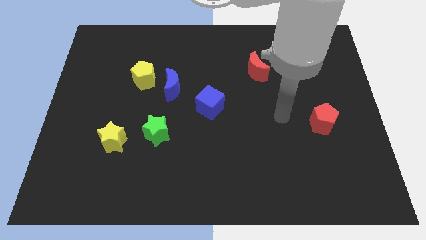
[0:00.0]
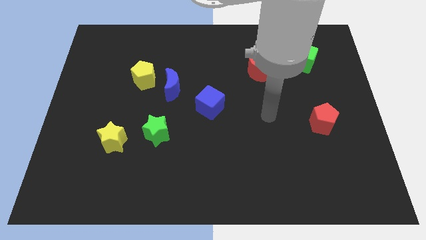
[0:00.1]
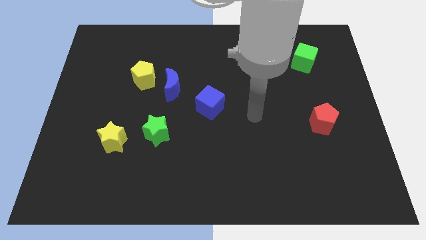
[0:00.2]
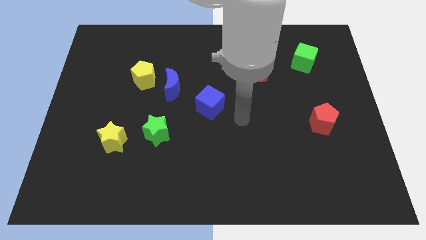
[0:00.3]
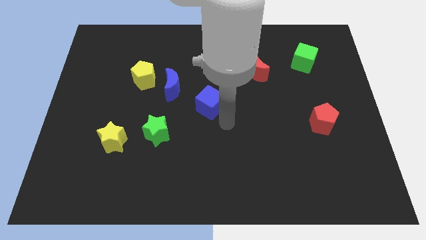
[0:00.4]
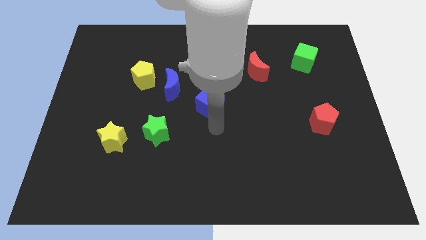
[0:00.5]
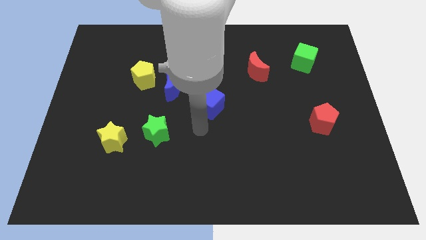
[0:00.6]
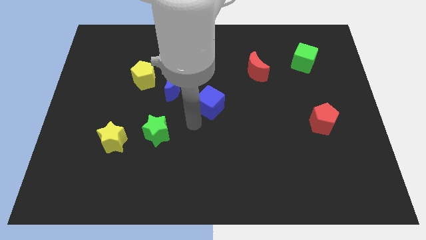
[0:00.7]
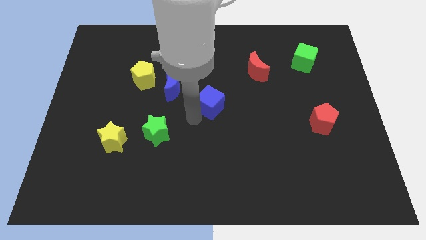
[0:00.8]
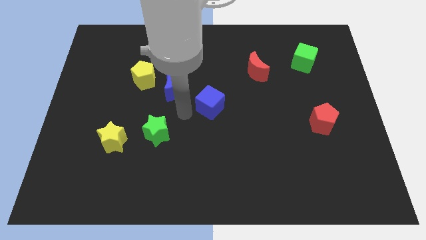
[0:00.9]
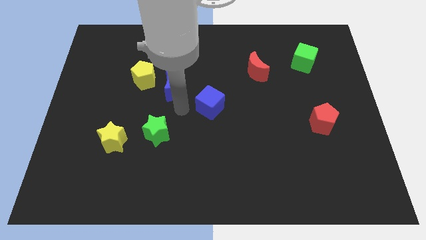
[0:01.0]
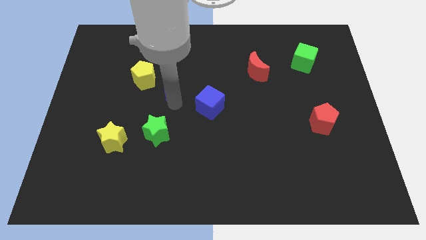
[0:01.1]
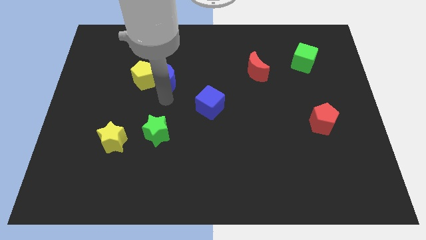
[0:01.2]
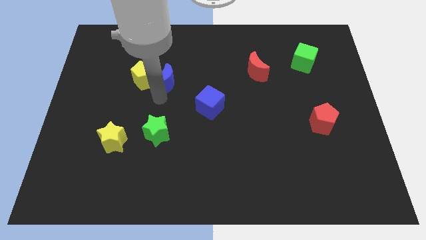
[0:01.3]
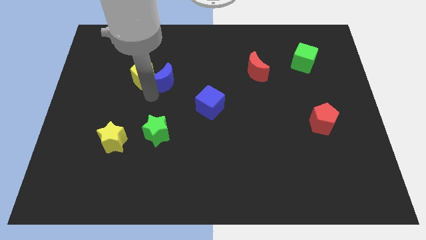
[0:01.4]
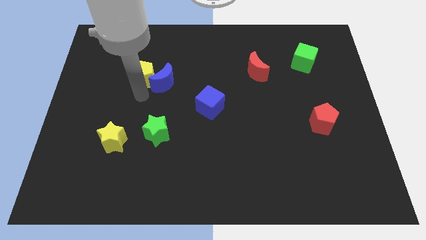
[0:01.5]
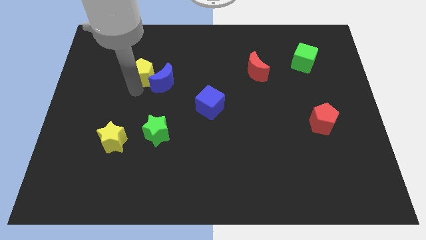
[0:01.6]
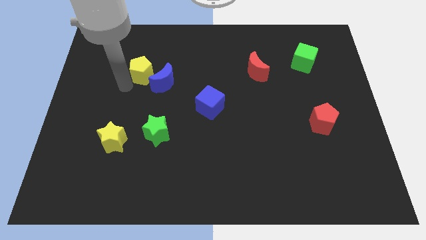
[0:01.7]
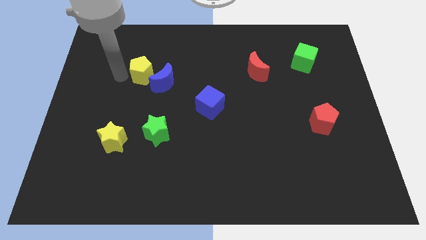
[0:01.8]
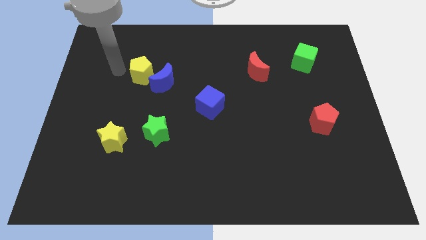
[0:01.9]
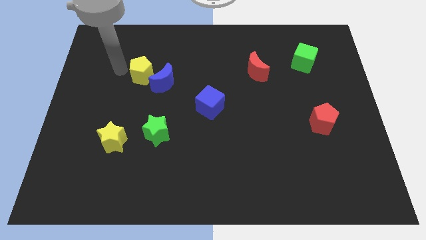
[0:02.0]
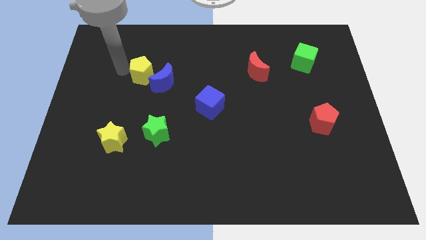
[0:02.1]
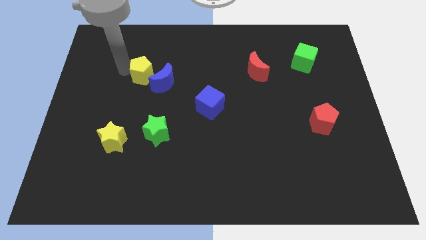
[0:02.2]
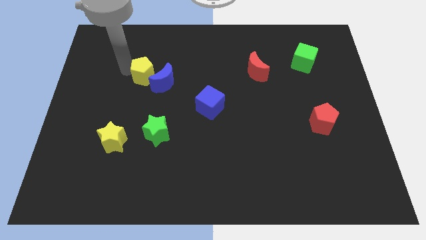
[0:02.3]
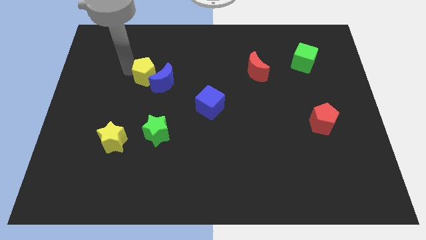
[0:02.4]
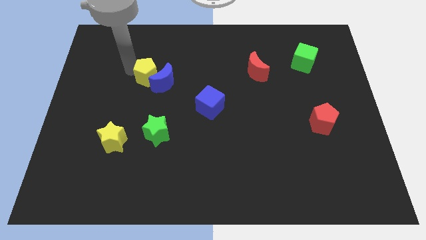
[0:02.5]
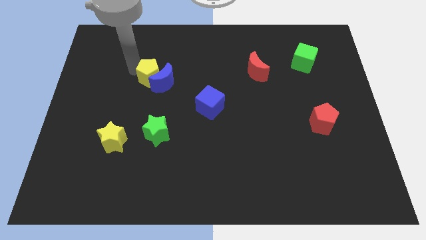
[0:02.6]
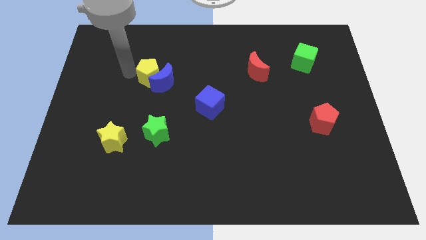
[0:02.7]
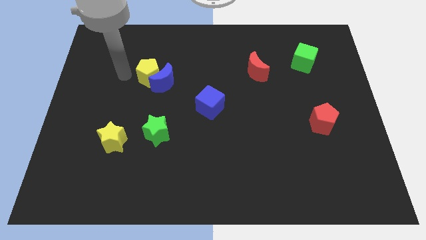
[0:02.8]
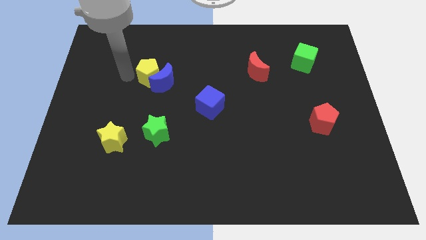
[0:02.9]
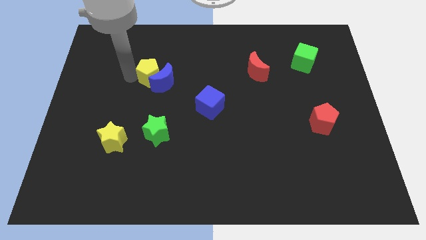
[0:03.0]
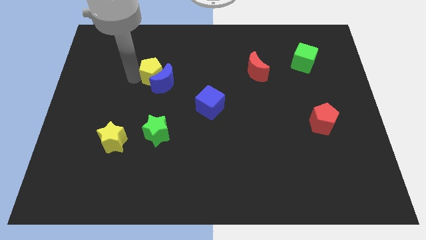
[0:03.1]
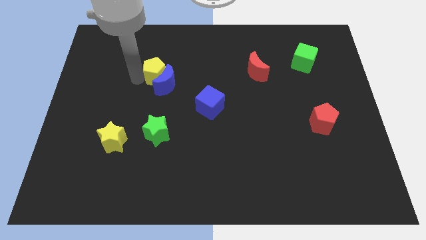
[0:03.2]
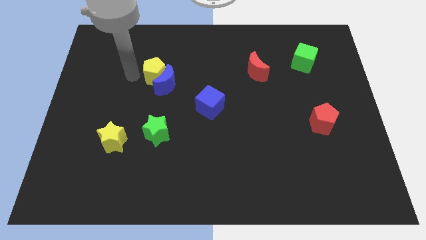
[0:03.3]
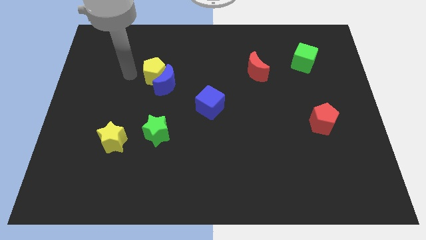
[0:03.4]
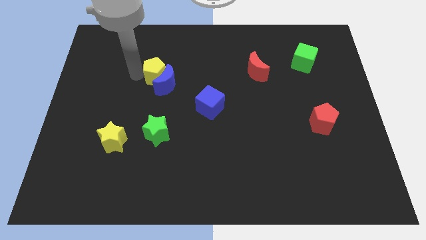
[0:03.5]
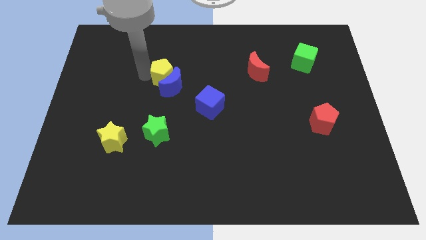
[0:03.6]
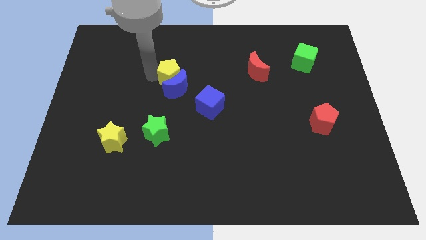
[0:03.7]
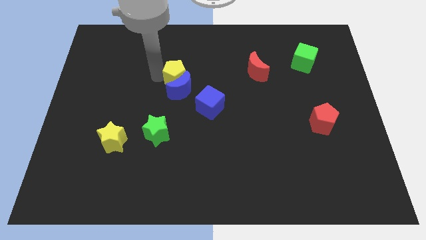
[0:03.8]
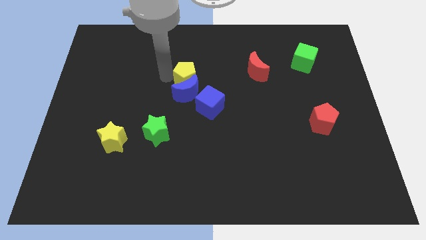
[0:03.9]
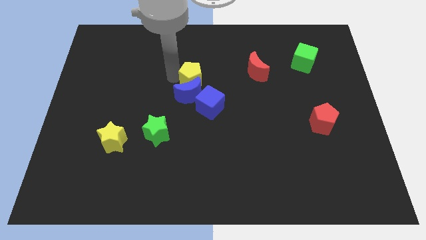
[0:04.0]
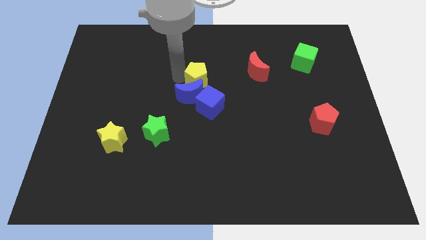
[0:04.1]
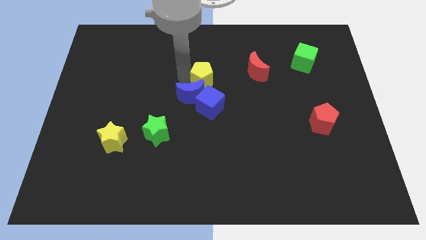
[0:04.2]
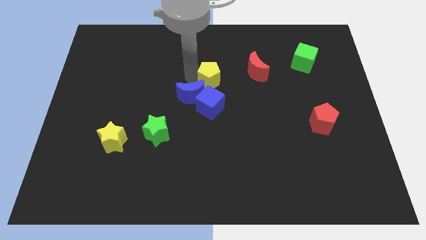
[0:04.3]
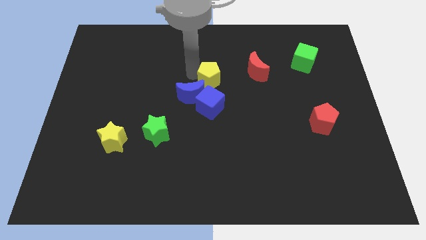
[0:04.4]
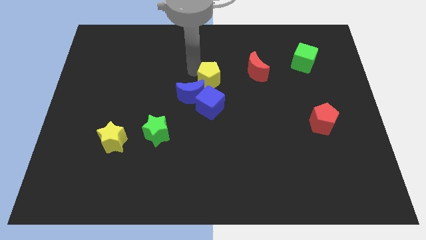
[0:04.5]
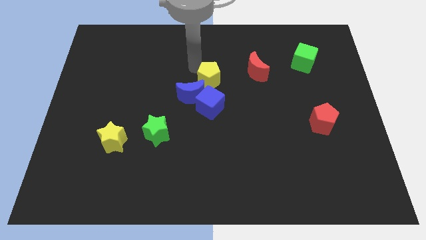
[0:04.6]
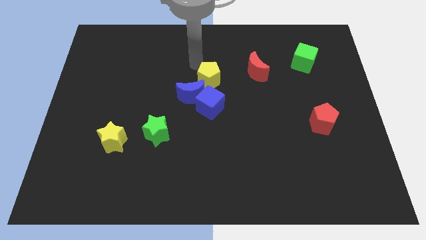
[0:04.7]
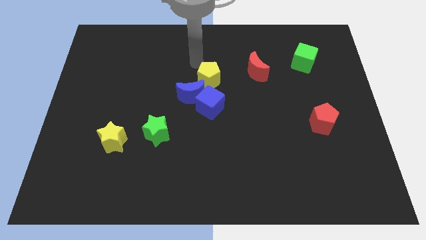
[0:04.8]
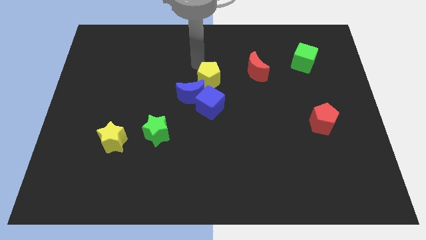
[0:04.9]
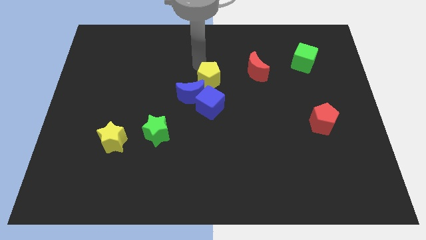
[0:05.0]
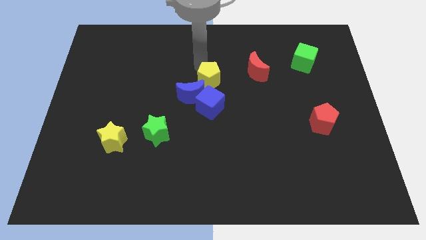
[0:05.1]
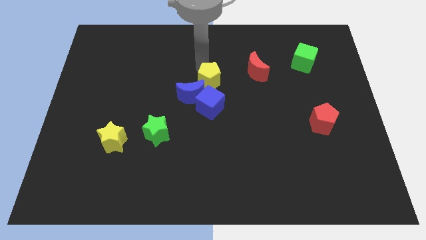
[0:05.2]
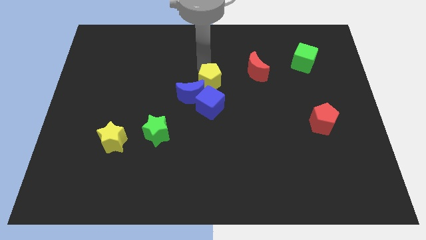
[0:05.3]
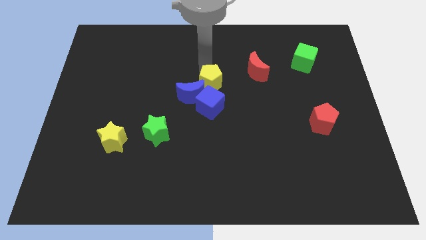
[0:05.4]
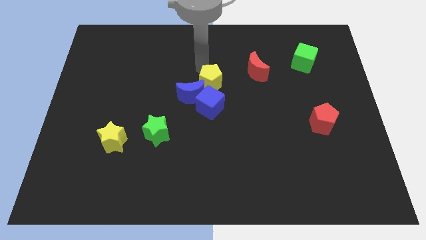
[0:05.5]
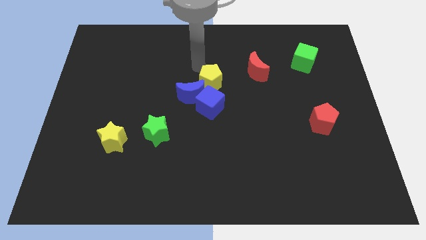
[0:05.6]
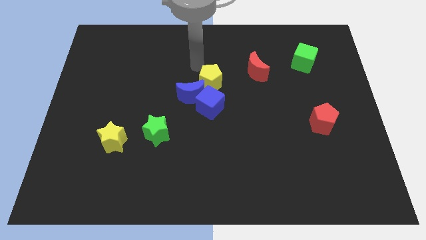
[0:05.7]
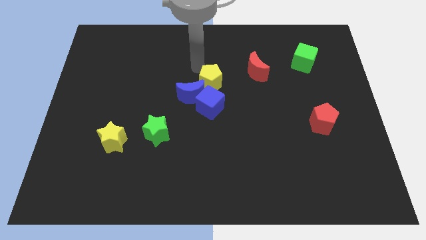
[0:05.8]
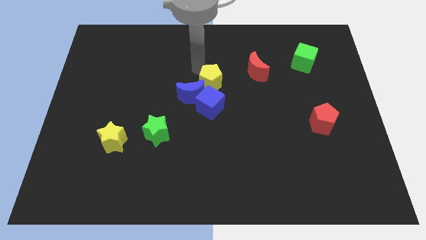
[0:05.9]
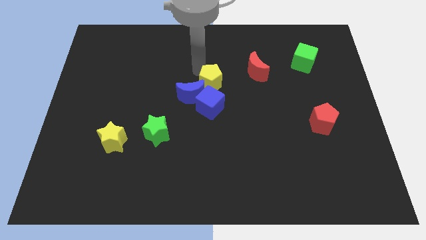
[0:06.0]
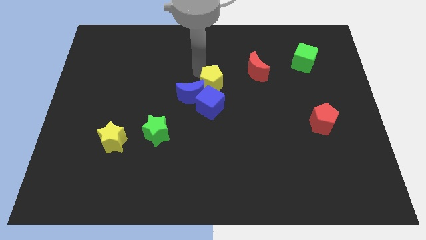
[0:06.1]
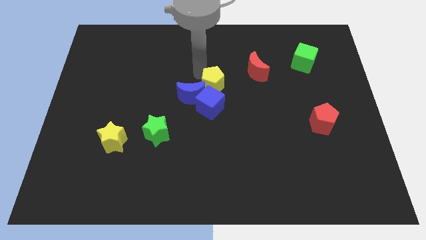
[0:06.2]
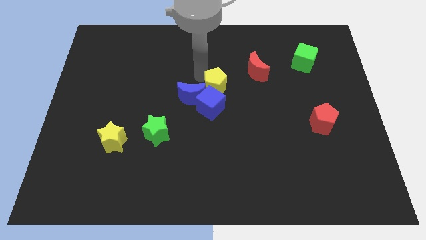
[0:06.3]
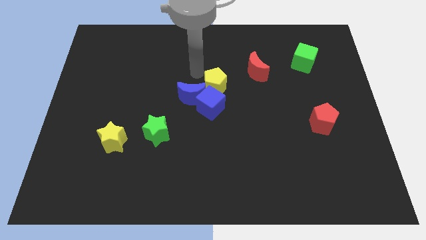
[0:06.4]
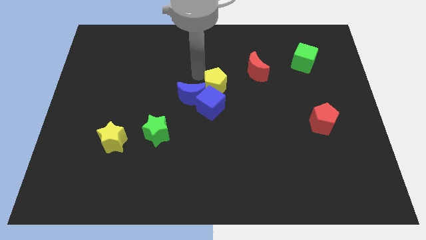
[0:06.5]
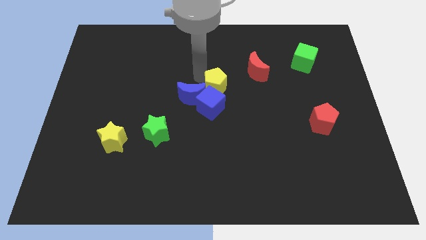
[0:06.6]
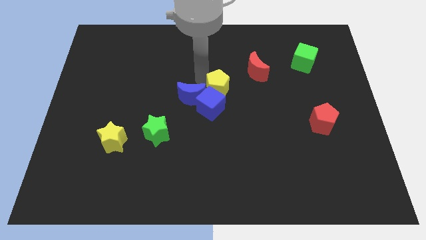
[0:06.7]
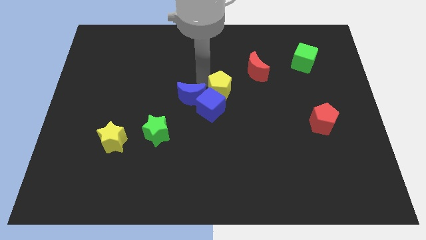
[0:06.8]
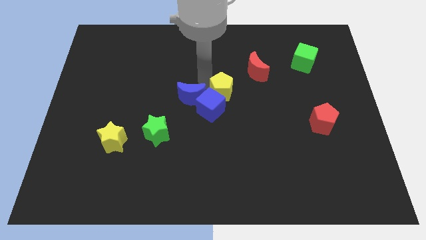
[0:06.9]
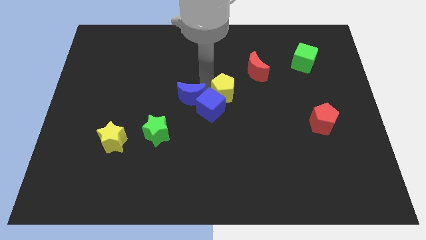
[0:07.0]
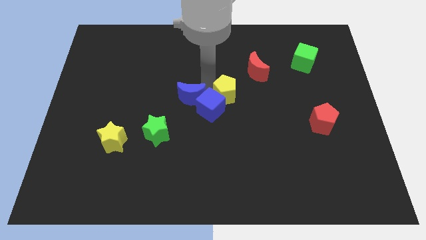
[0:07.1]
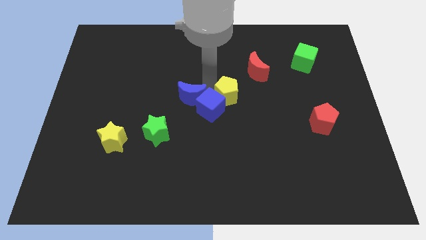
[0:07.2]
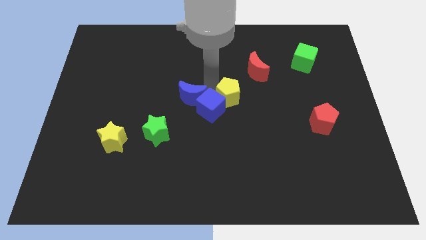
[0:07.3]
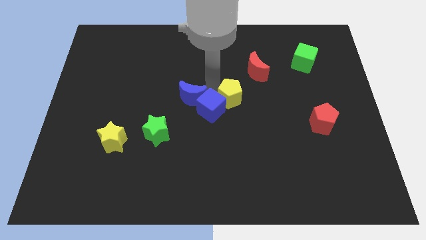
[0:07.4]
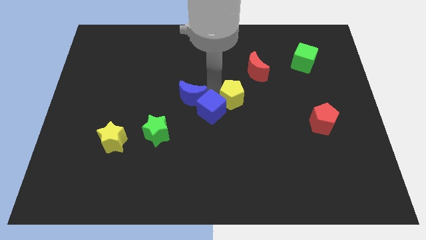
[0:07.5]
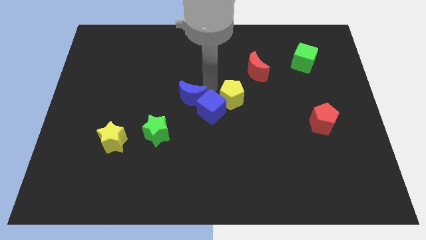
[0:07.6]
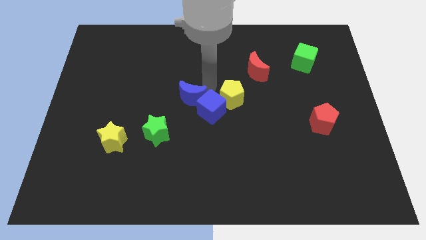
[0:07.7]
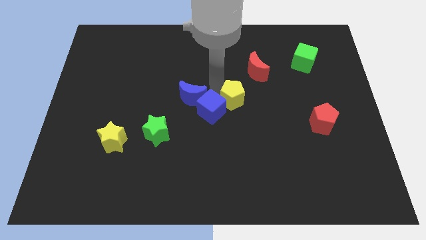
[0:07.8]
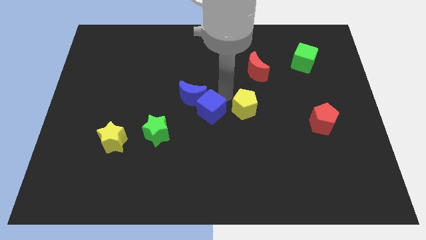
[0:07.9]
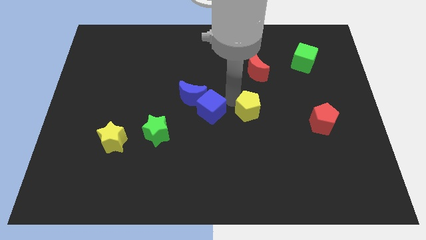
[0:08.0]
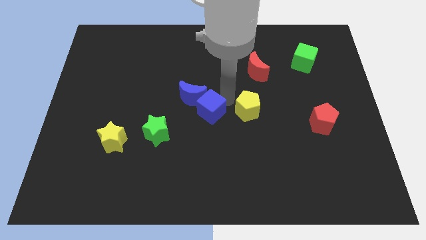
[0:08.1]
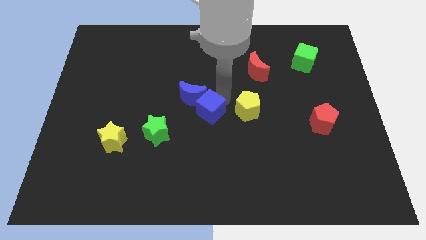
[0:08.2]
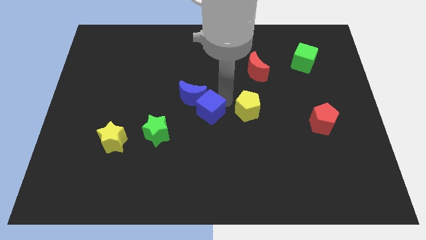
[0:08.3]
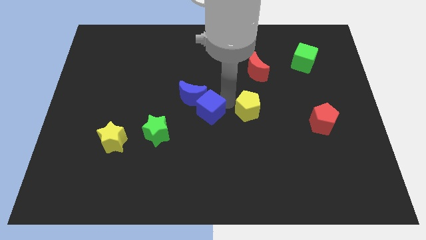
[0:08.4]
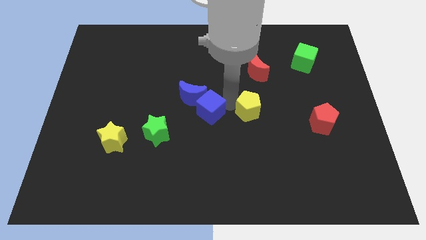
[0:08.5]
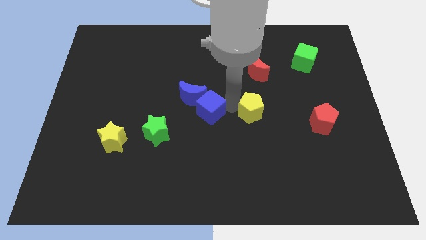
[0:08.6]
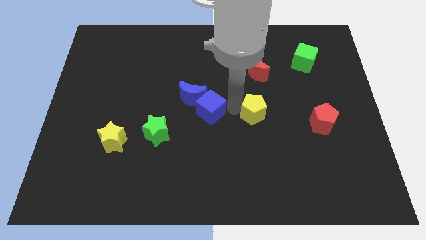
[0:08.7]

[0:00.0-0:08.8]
slide the yellow pentagon just left of the red pentagon
